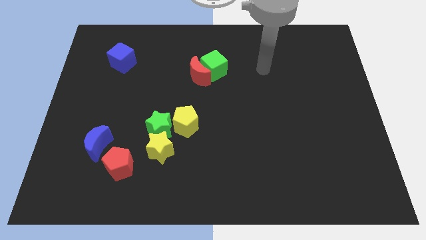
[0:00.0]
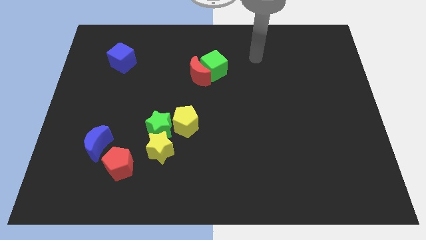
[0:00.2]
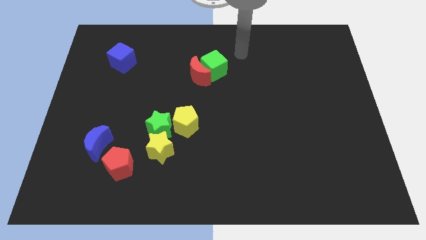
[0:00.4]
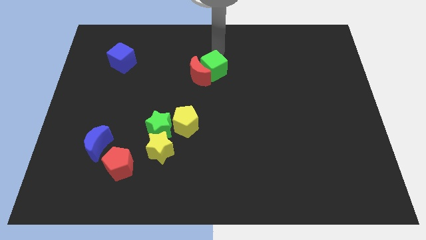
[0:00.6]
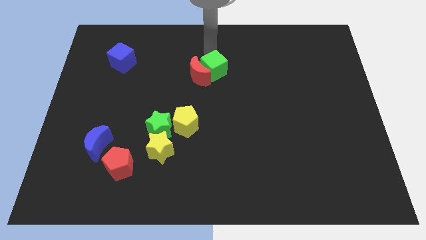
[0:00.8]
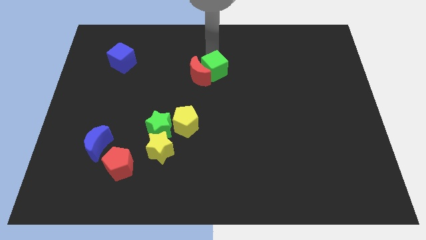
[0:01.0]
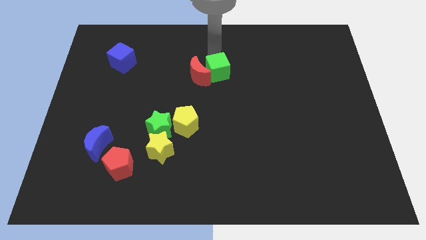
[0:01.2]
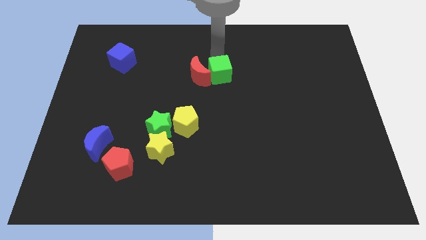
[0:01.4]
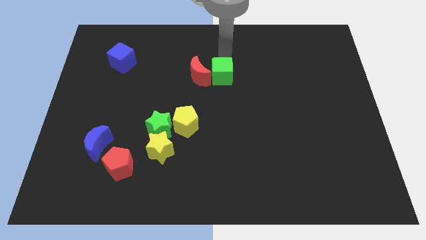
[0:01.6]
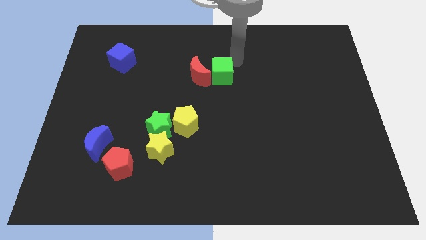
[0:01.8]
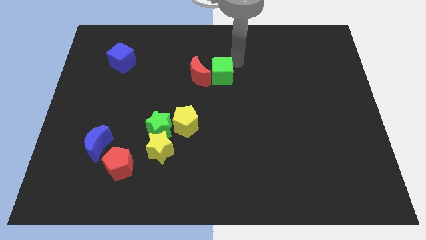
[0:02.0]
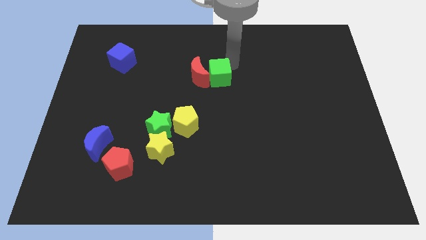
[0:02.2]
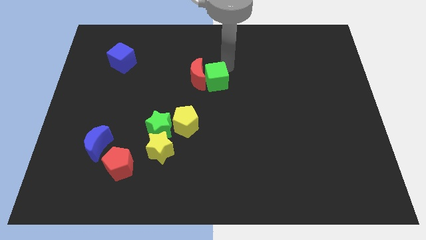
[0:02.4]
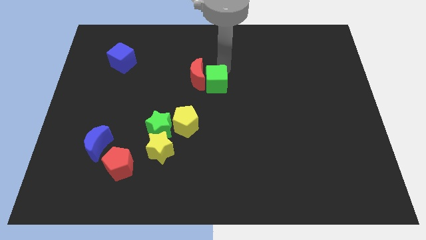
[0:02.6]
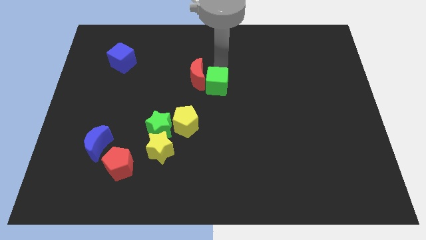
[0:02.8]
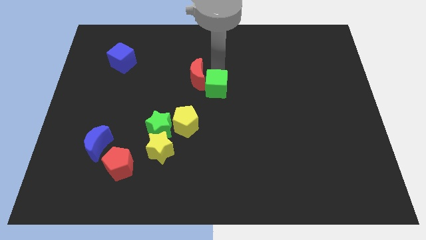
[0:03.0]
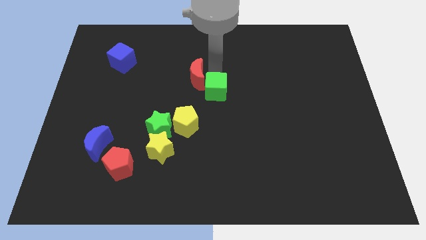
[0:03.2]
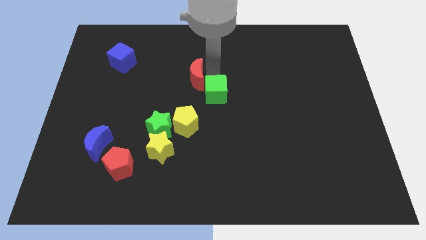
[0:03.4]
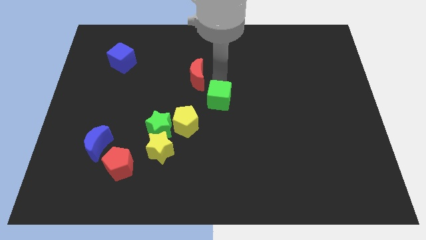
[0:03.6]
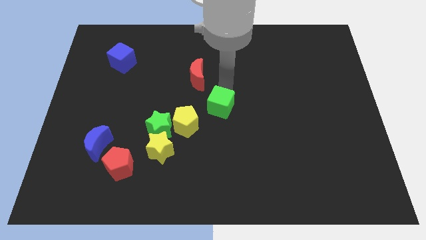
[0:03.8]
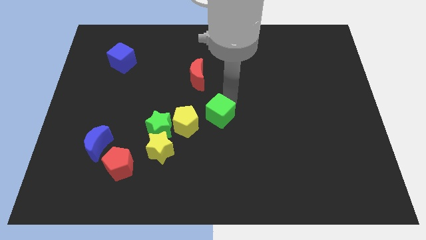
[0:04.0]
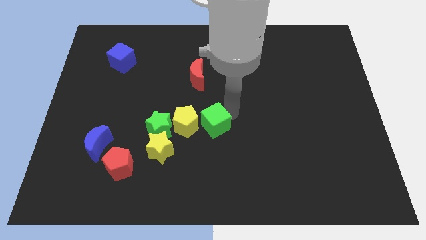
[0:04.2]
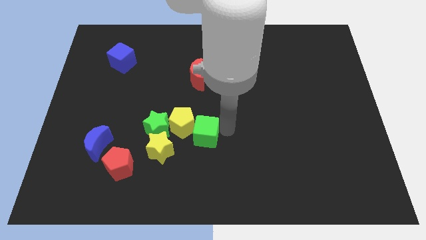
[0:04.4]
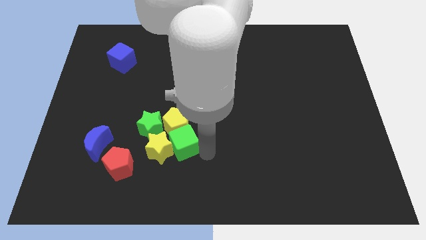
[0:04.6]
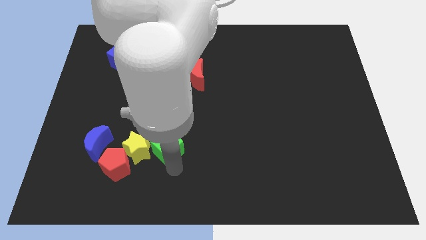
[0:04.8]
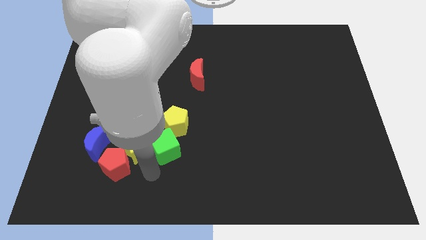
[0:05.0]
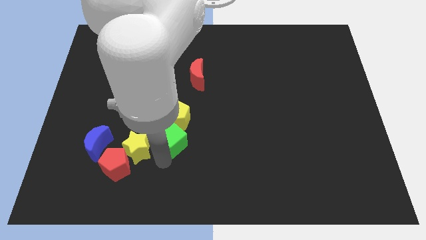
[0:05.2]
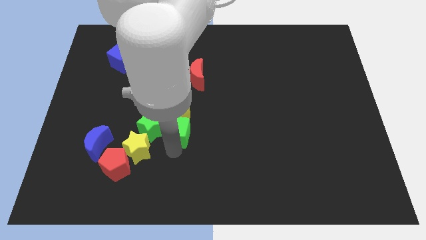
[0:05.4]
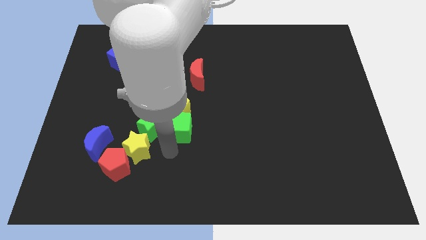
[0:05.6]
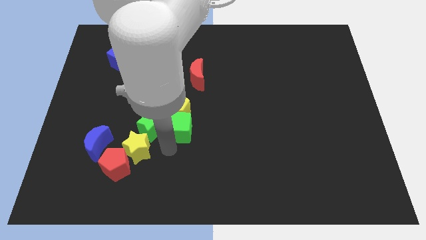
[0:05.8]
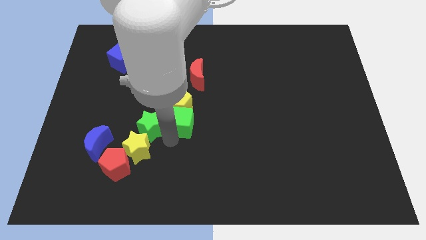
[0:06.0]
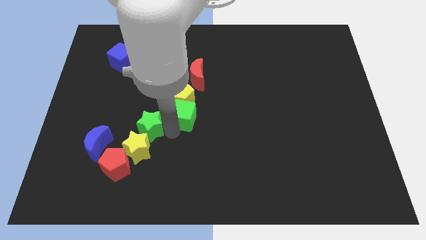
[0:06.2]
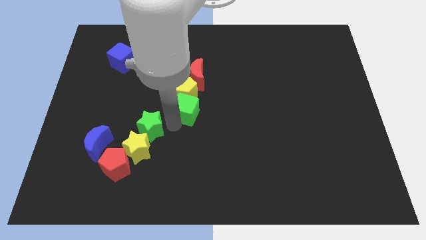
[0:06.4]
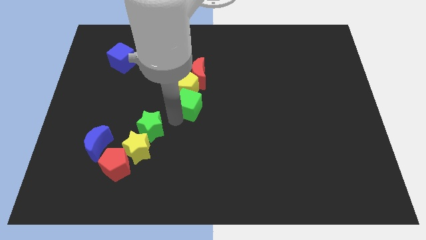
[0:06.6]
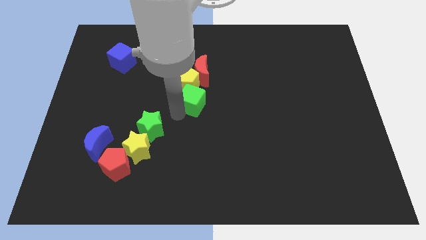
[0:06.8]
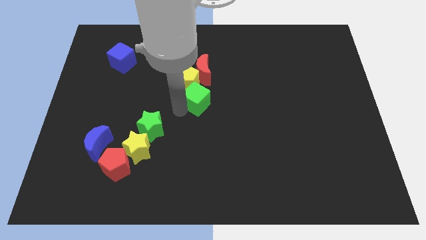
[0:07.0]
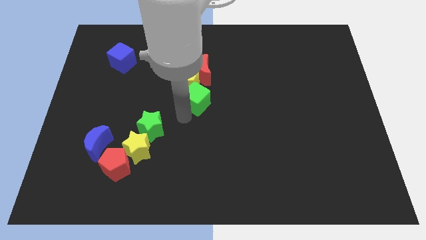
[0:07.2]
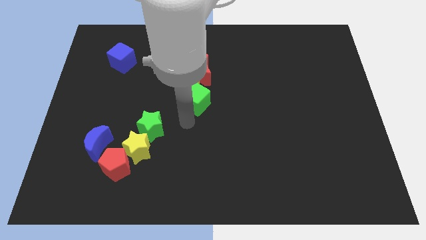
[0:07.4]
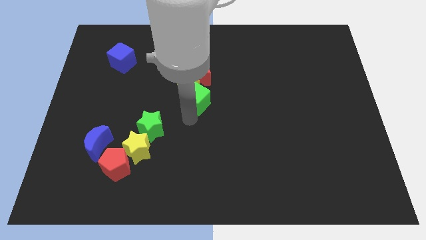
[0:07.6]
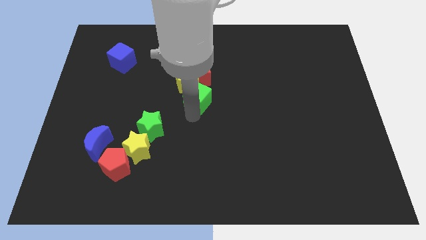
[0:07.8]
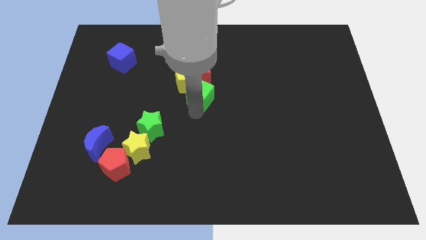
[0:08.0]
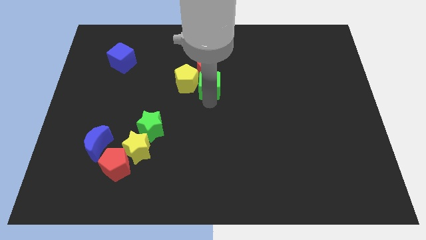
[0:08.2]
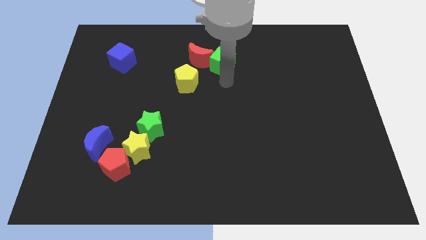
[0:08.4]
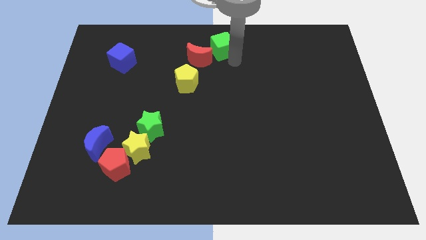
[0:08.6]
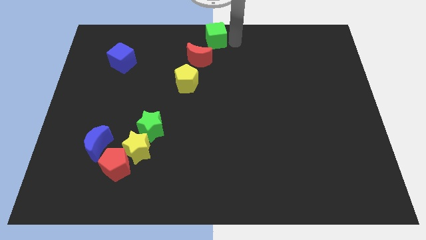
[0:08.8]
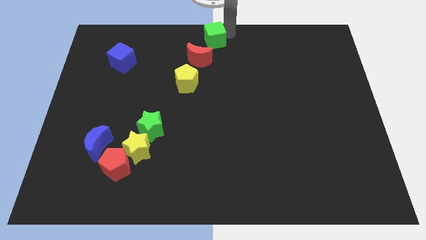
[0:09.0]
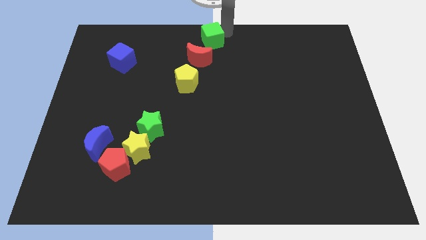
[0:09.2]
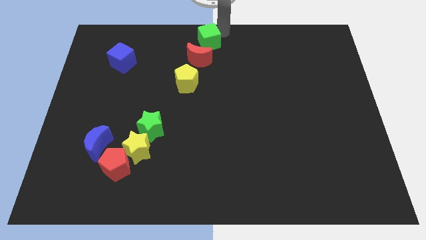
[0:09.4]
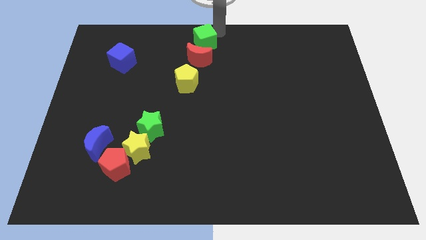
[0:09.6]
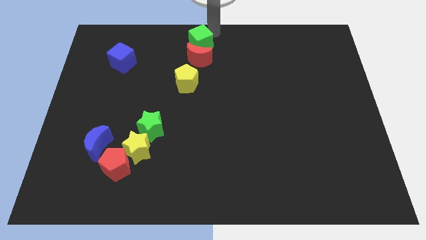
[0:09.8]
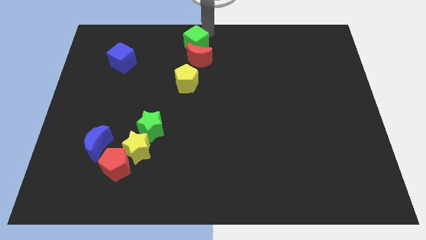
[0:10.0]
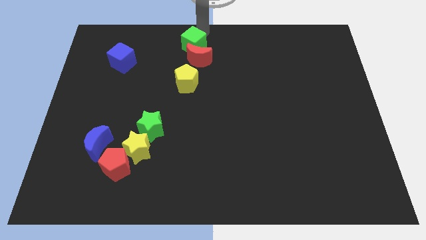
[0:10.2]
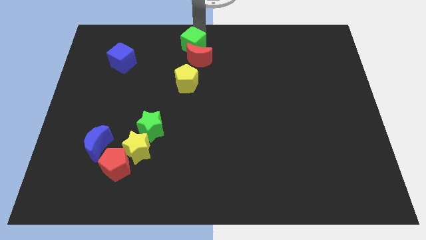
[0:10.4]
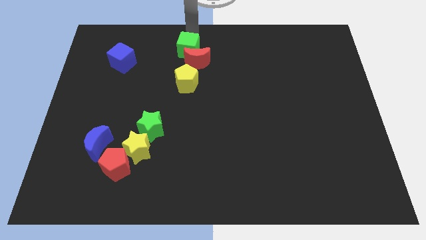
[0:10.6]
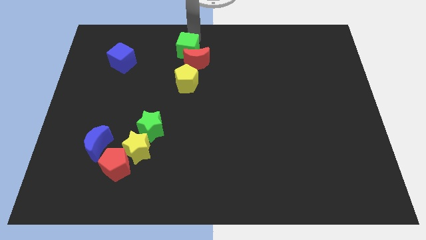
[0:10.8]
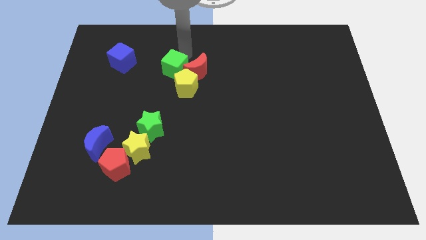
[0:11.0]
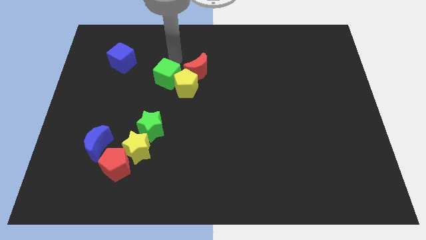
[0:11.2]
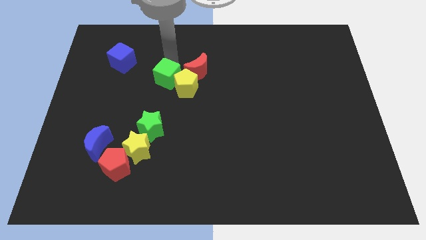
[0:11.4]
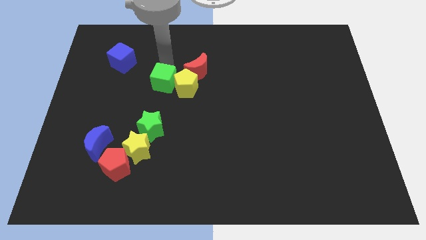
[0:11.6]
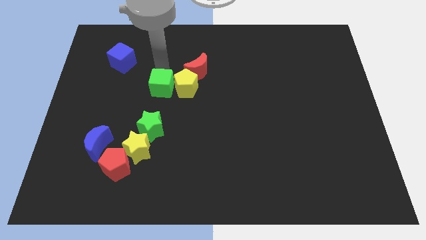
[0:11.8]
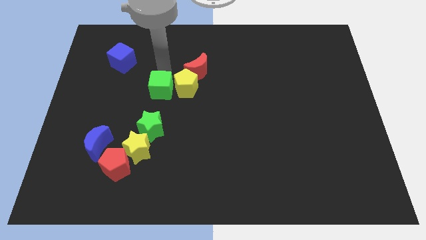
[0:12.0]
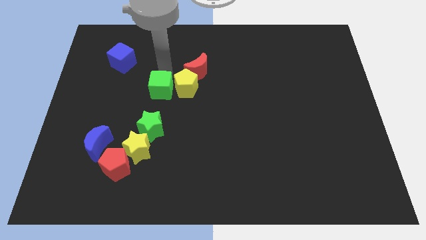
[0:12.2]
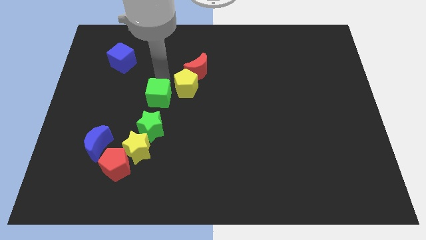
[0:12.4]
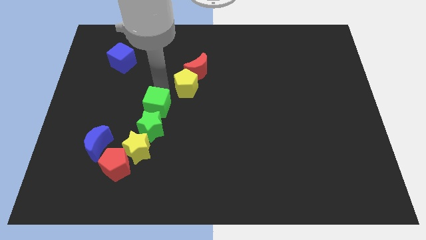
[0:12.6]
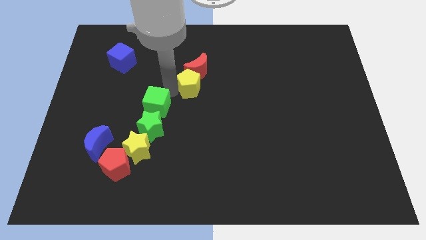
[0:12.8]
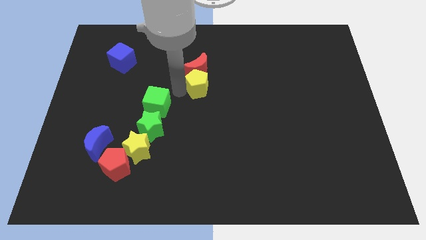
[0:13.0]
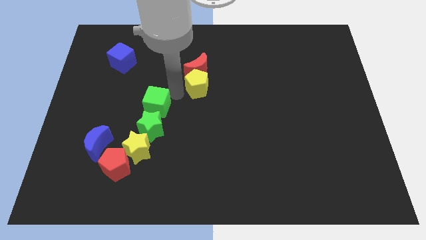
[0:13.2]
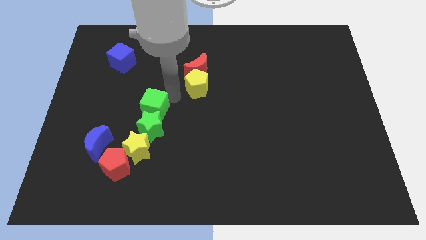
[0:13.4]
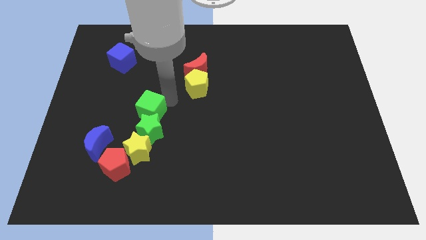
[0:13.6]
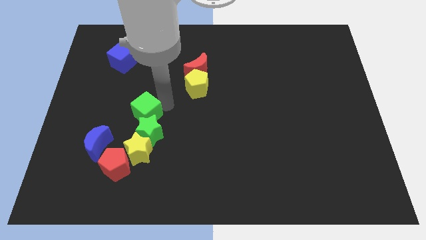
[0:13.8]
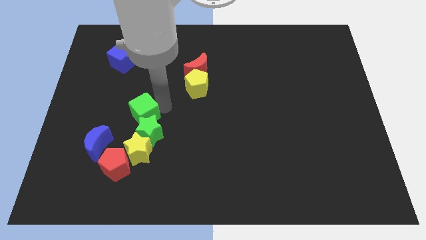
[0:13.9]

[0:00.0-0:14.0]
put the green cube diagonally up and to the right of the blue moon
